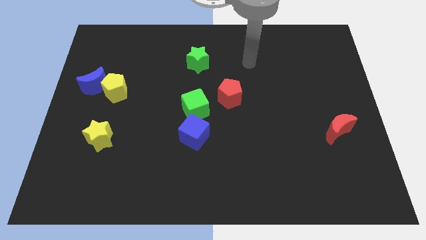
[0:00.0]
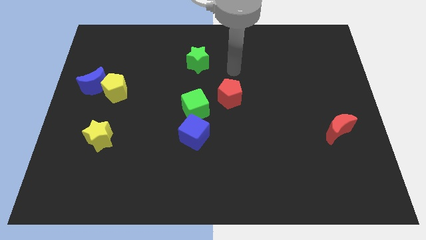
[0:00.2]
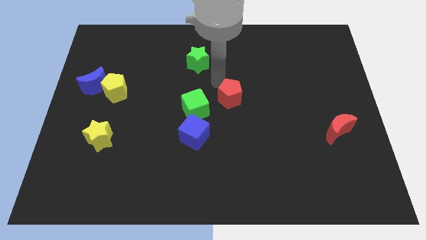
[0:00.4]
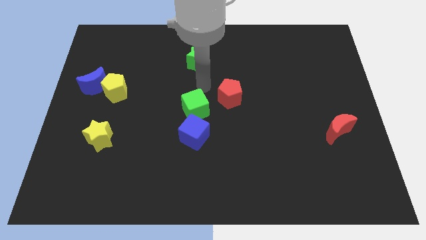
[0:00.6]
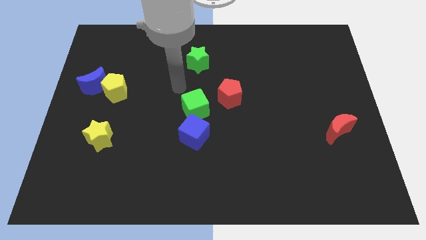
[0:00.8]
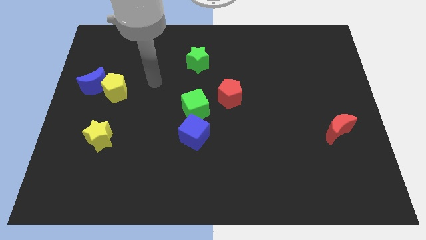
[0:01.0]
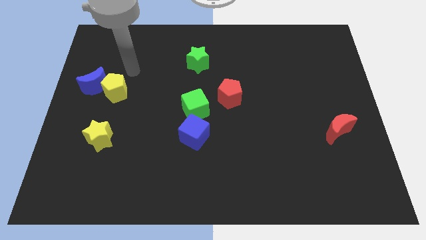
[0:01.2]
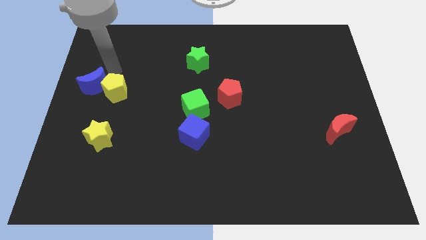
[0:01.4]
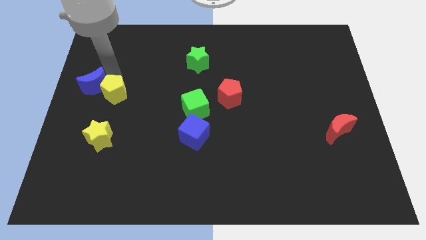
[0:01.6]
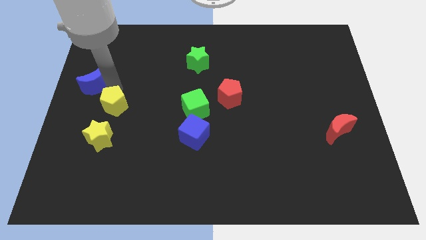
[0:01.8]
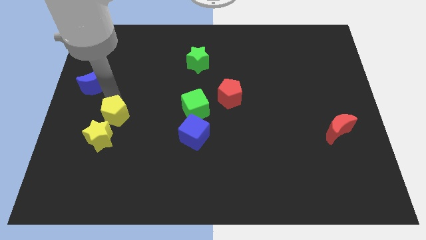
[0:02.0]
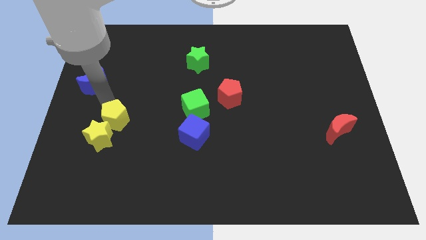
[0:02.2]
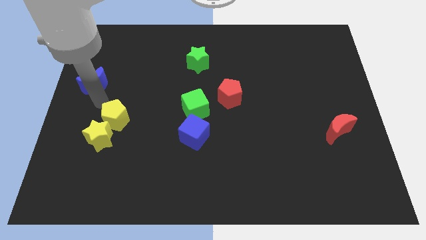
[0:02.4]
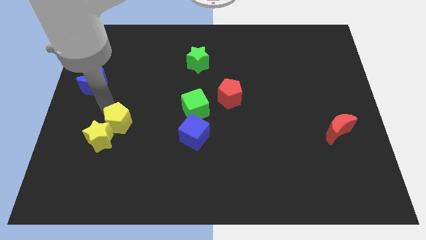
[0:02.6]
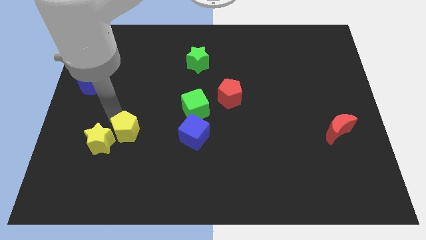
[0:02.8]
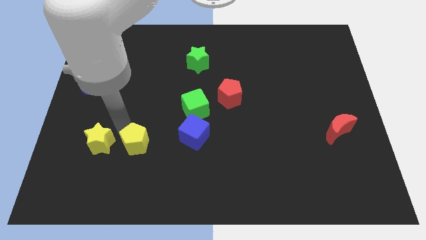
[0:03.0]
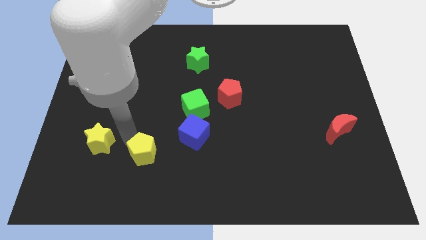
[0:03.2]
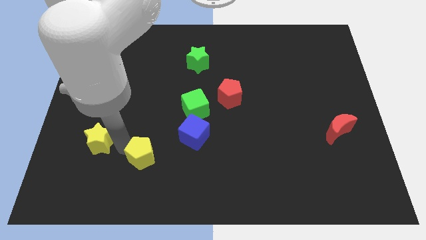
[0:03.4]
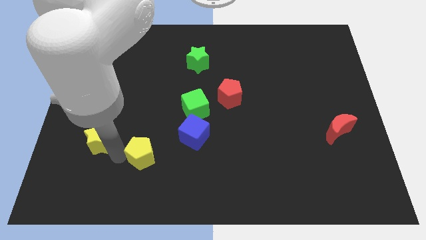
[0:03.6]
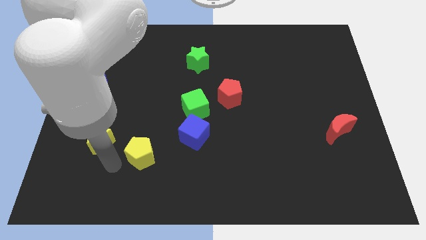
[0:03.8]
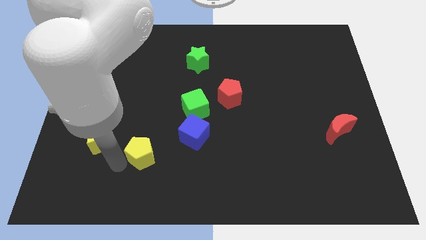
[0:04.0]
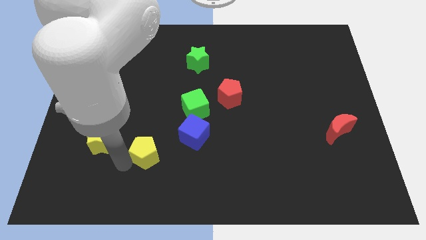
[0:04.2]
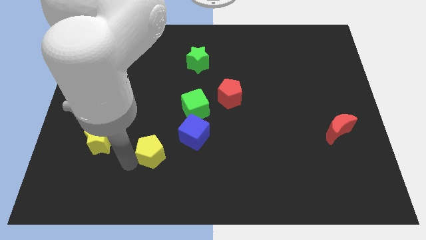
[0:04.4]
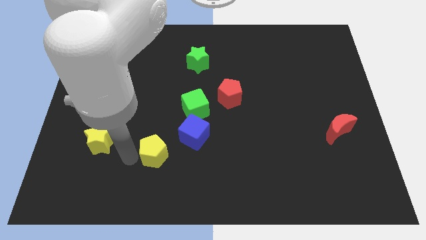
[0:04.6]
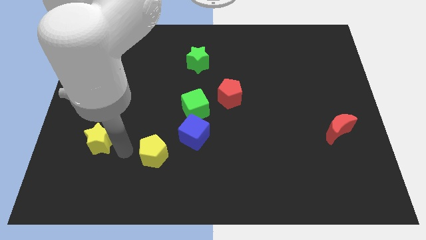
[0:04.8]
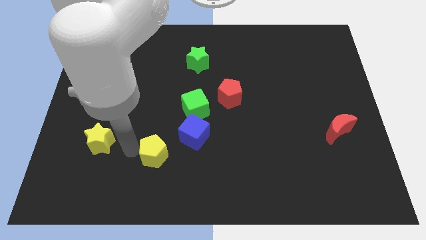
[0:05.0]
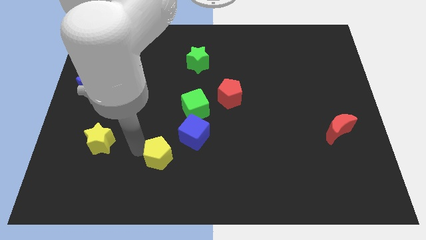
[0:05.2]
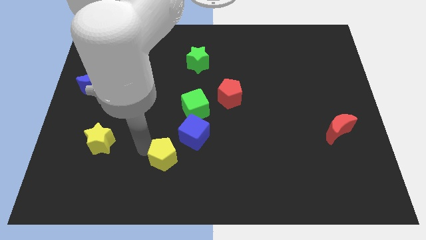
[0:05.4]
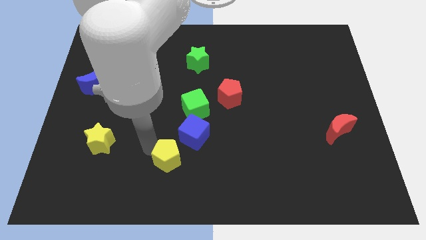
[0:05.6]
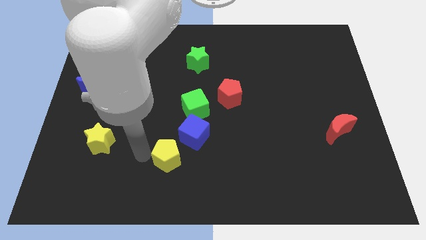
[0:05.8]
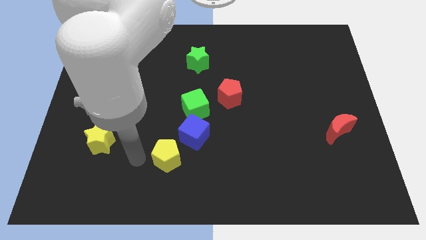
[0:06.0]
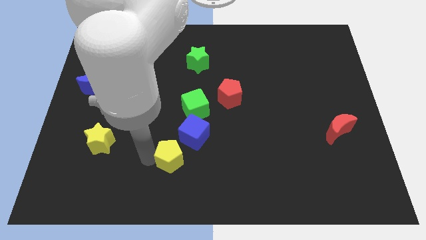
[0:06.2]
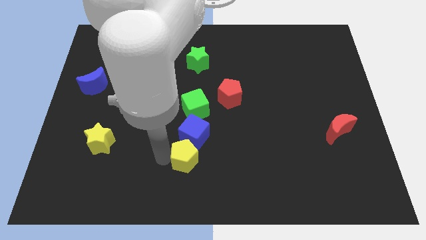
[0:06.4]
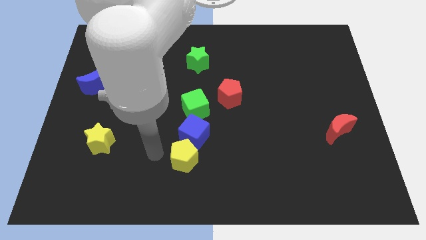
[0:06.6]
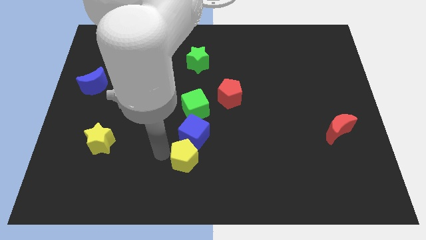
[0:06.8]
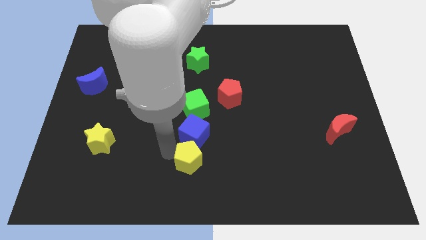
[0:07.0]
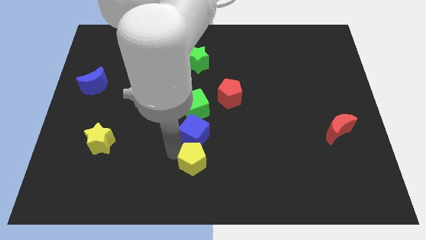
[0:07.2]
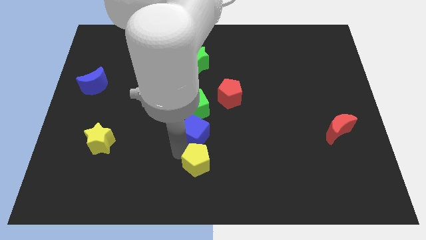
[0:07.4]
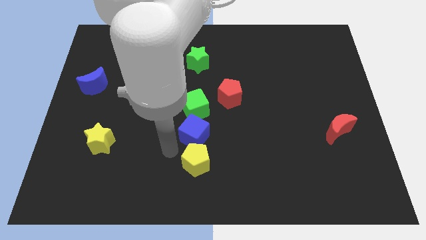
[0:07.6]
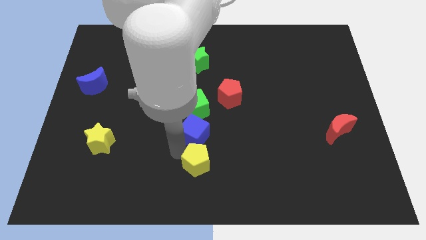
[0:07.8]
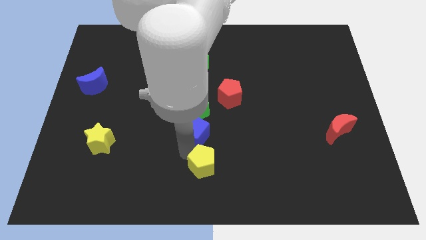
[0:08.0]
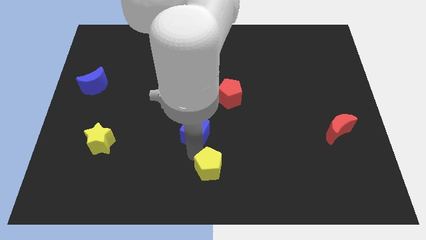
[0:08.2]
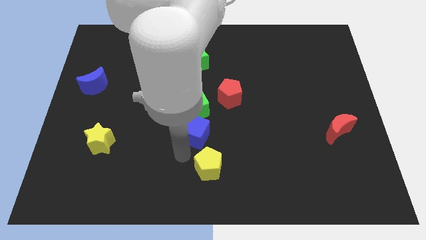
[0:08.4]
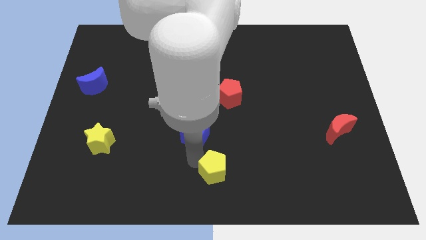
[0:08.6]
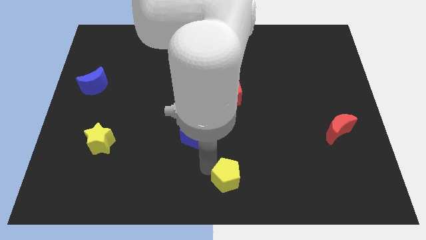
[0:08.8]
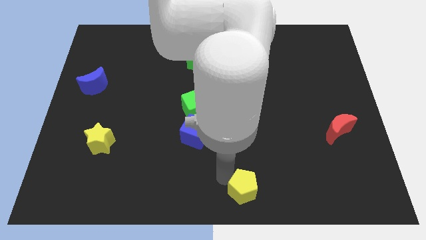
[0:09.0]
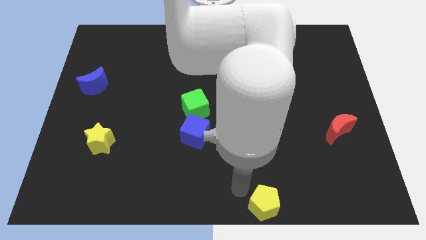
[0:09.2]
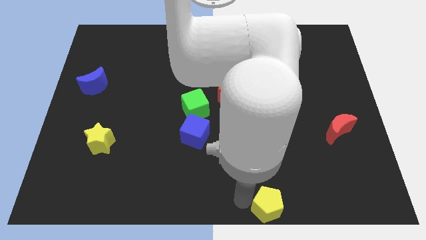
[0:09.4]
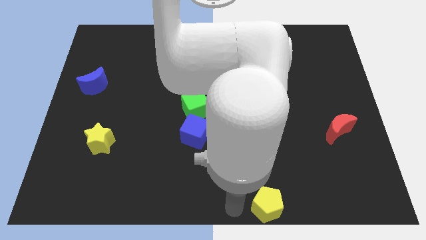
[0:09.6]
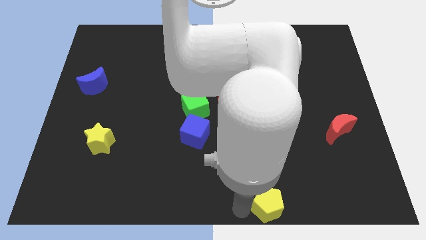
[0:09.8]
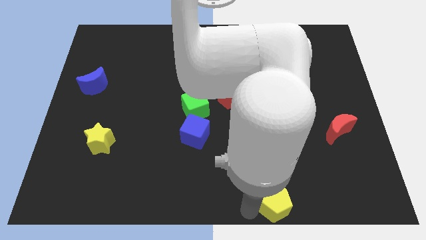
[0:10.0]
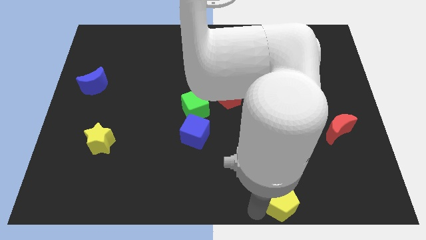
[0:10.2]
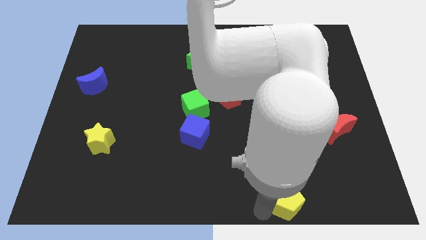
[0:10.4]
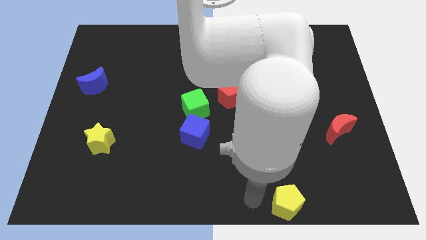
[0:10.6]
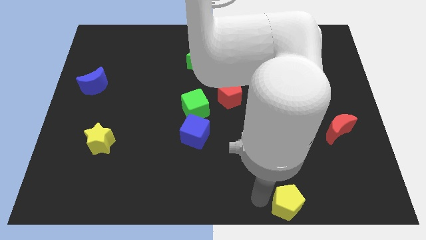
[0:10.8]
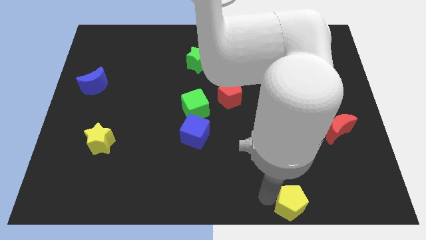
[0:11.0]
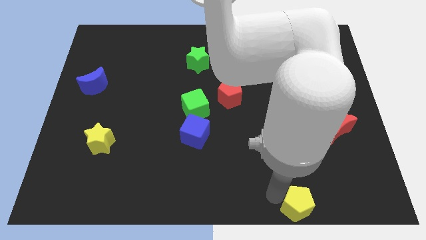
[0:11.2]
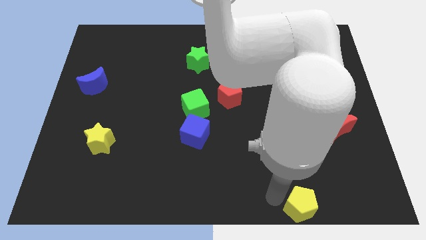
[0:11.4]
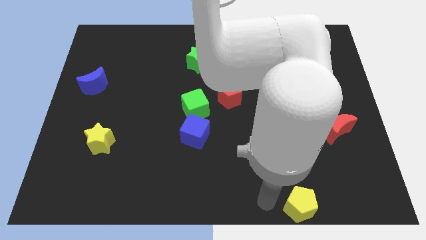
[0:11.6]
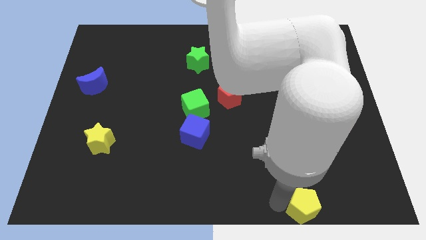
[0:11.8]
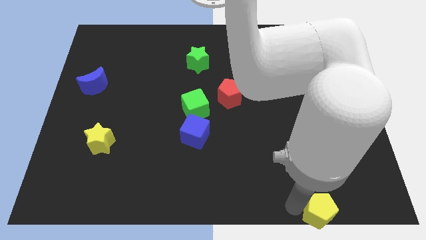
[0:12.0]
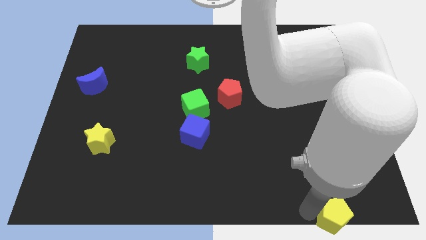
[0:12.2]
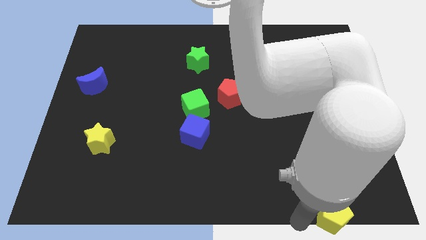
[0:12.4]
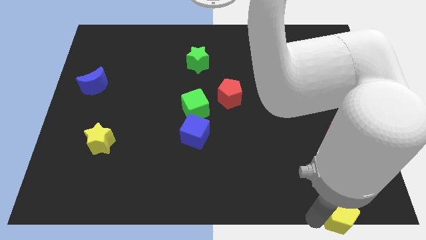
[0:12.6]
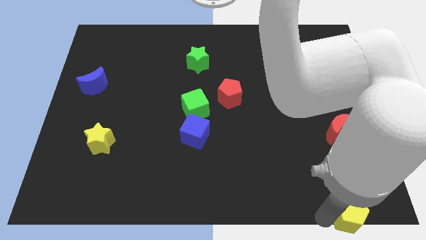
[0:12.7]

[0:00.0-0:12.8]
slide the yellow pentagon to the bottom right corner

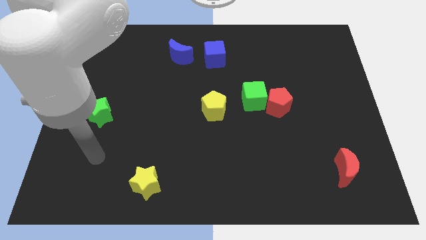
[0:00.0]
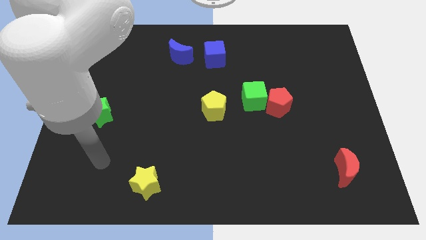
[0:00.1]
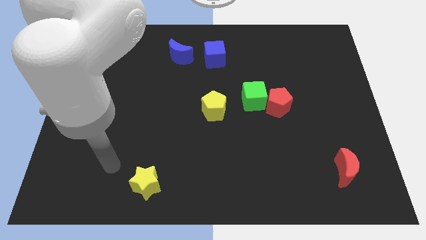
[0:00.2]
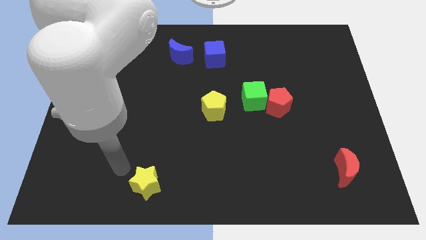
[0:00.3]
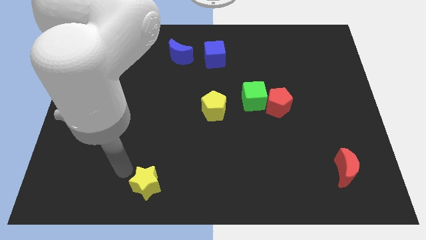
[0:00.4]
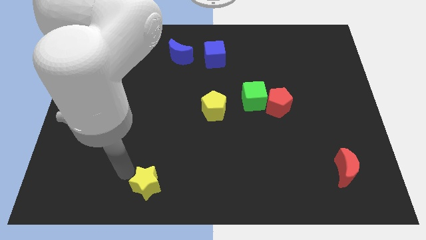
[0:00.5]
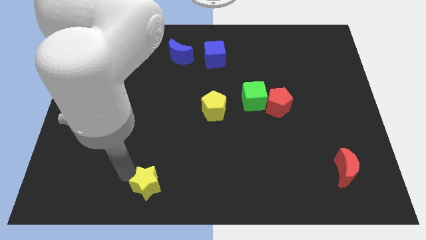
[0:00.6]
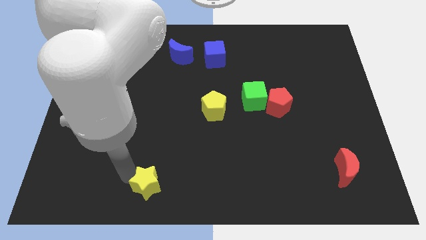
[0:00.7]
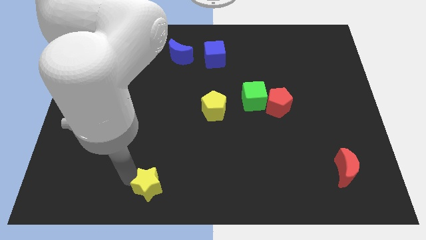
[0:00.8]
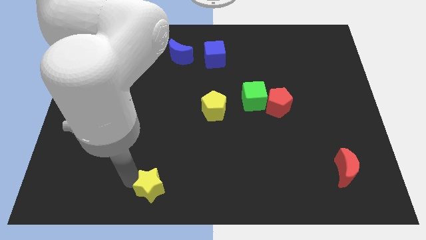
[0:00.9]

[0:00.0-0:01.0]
put the yellow star to the bottom
